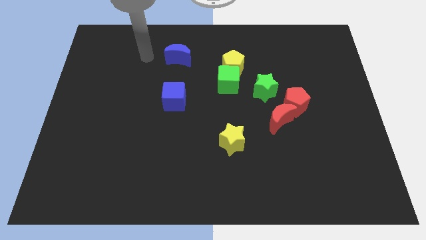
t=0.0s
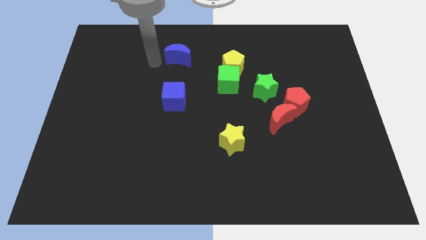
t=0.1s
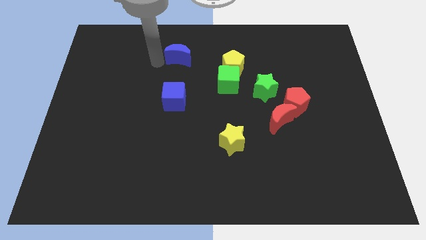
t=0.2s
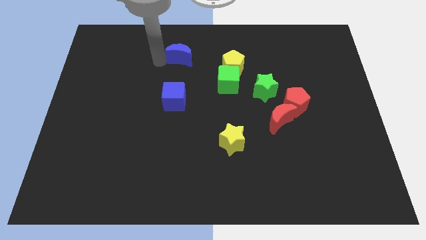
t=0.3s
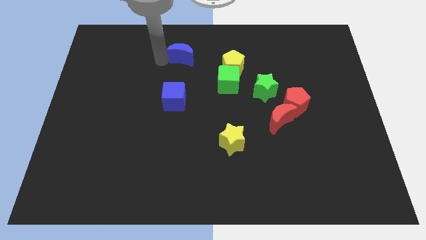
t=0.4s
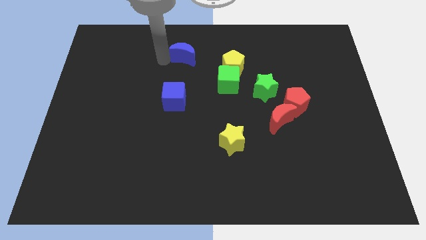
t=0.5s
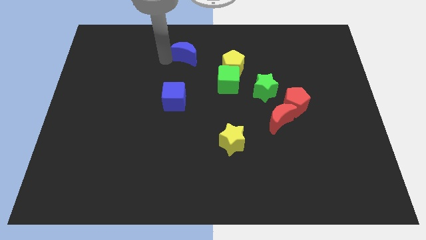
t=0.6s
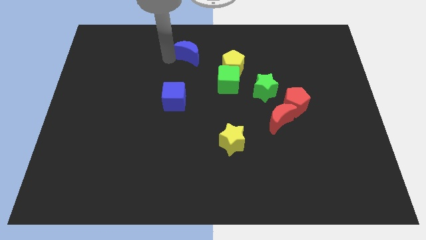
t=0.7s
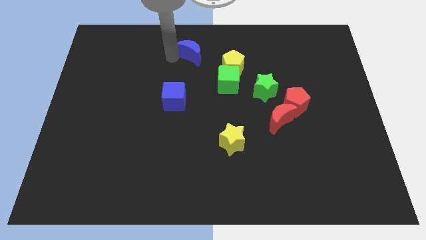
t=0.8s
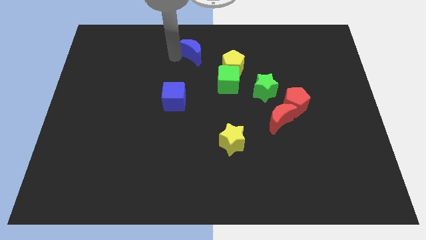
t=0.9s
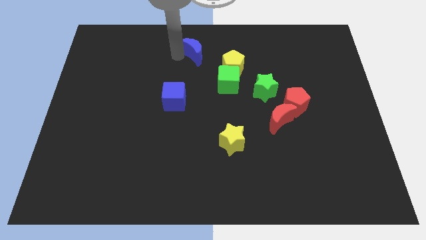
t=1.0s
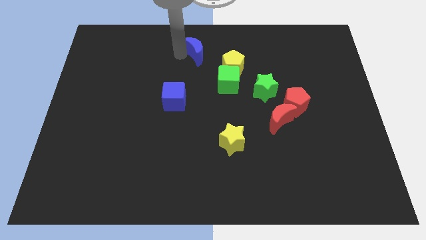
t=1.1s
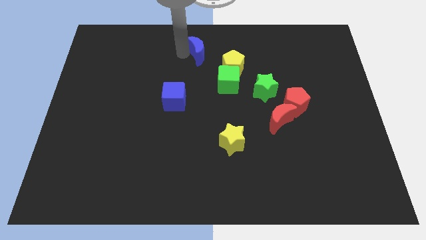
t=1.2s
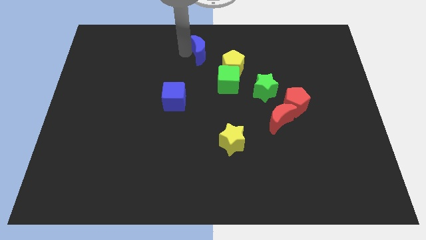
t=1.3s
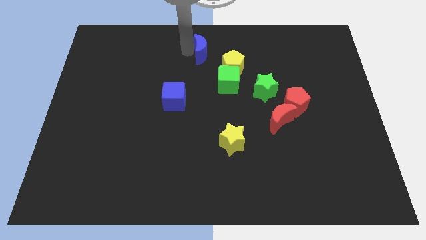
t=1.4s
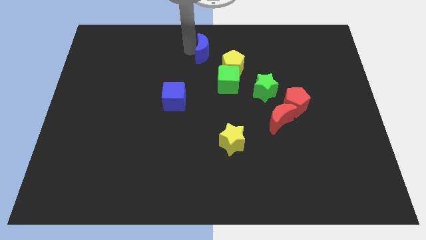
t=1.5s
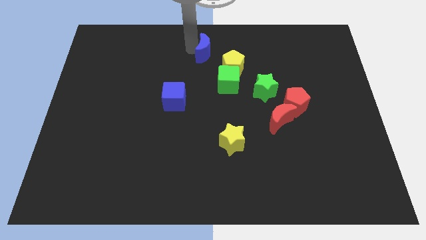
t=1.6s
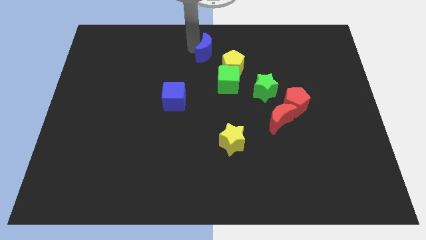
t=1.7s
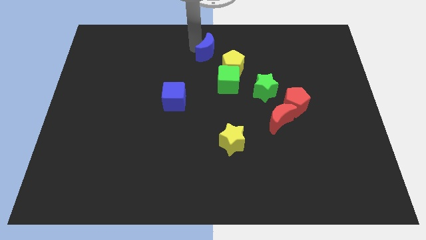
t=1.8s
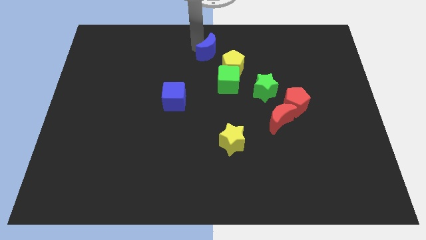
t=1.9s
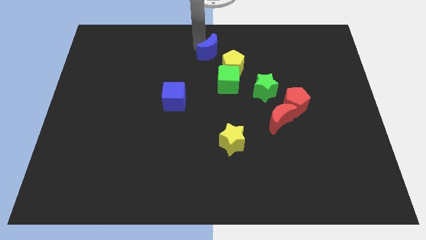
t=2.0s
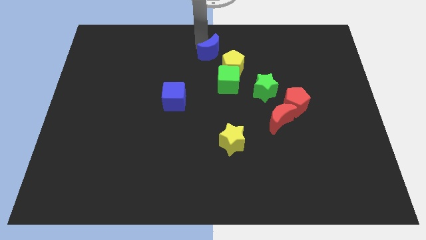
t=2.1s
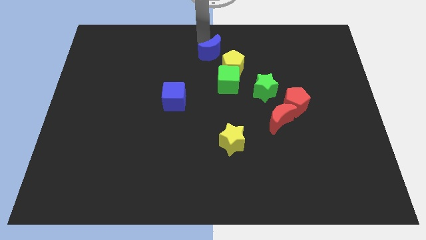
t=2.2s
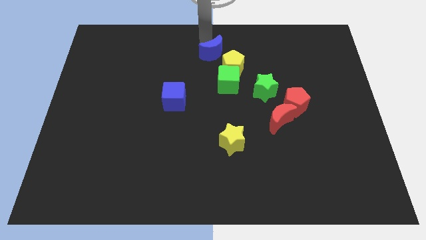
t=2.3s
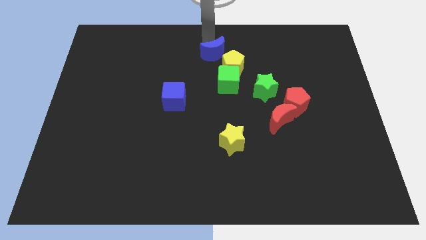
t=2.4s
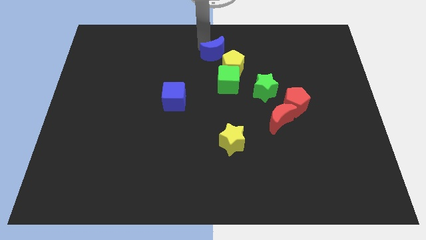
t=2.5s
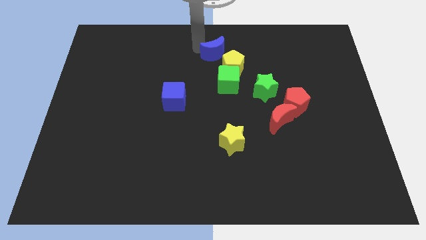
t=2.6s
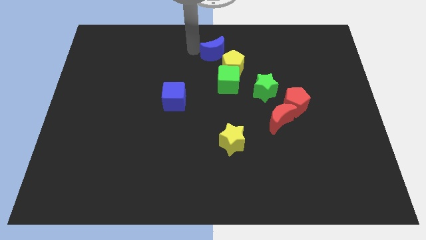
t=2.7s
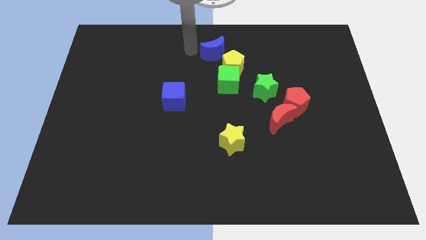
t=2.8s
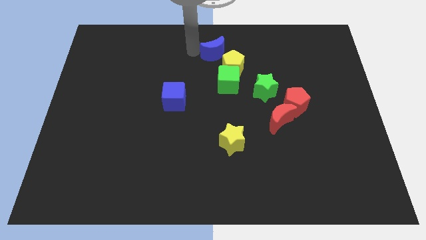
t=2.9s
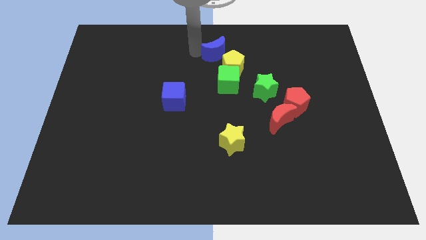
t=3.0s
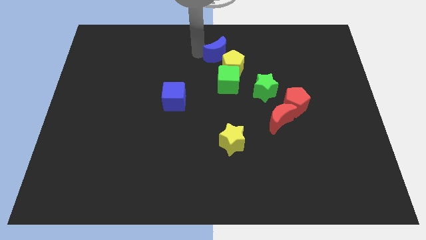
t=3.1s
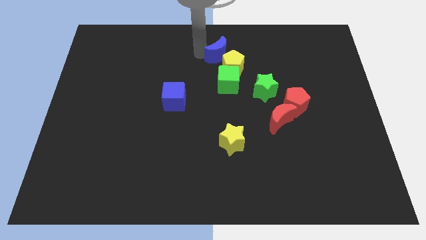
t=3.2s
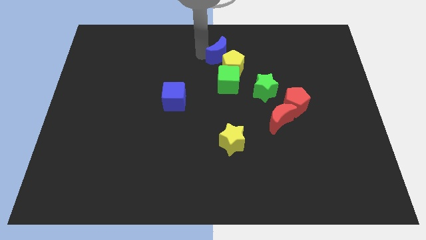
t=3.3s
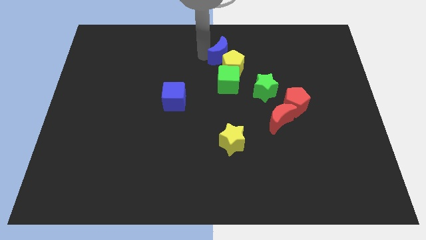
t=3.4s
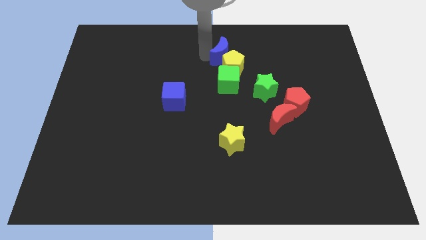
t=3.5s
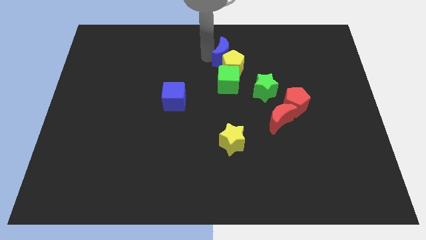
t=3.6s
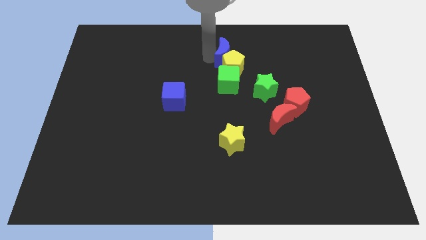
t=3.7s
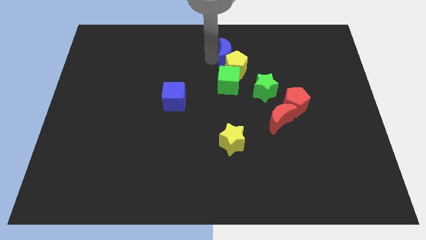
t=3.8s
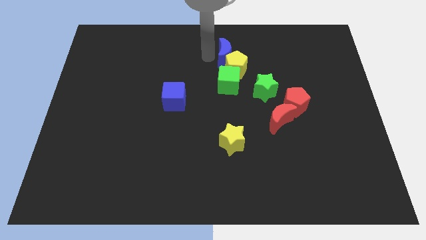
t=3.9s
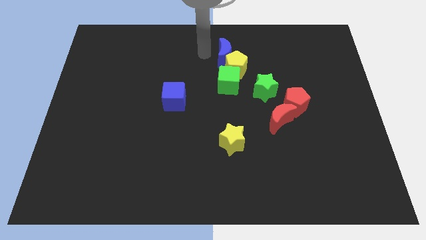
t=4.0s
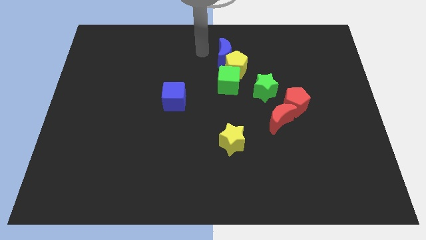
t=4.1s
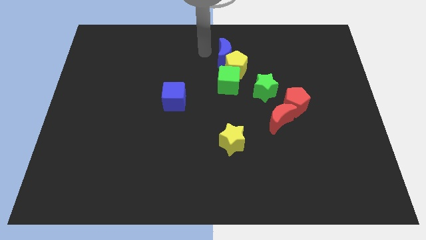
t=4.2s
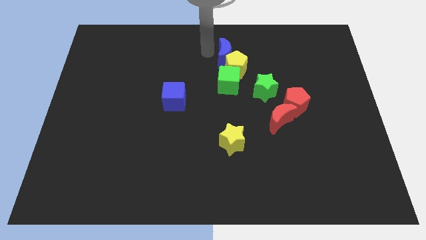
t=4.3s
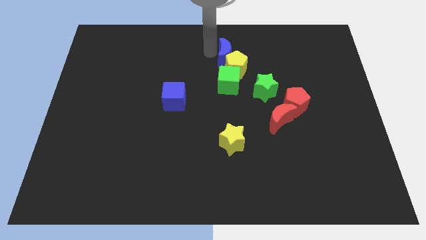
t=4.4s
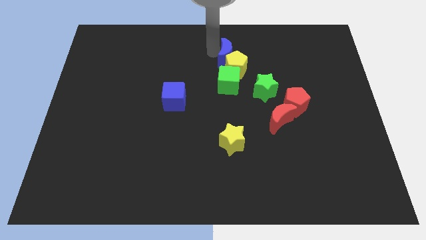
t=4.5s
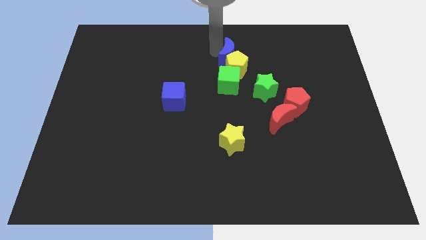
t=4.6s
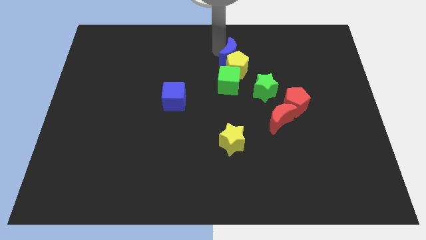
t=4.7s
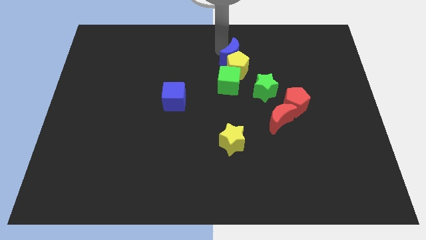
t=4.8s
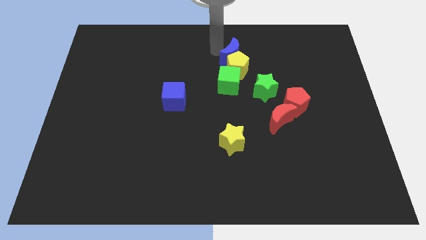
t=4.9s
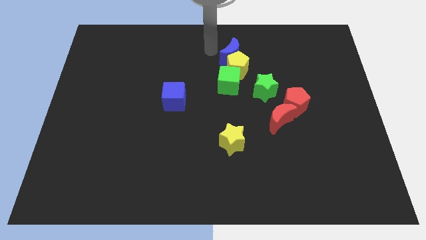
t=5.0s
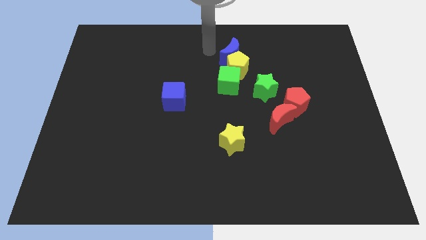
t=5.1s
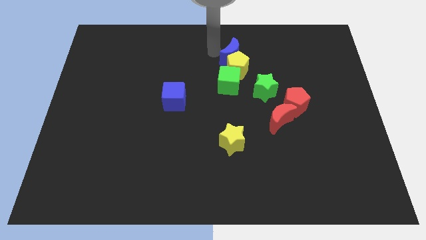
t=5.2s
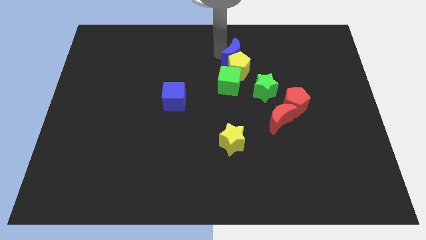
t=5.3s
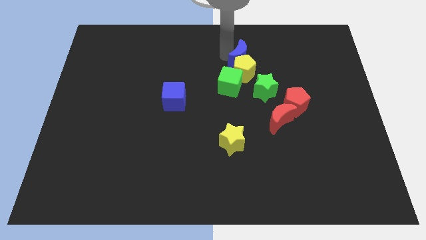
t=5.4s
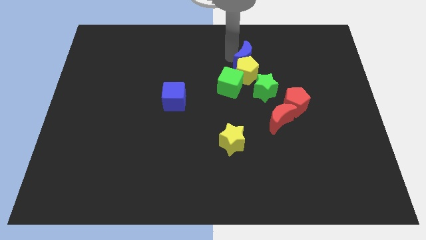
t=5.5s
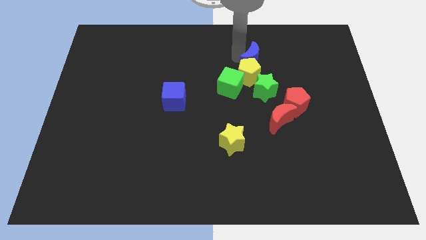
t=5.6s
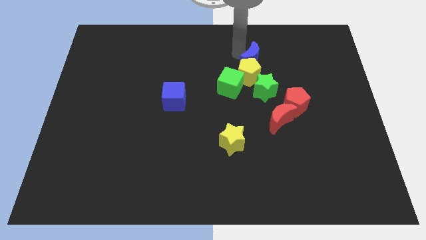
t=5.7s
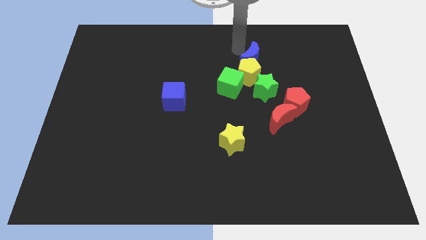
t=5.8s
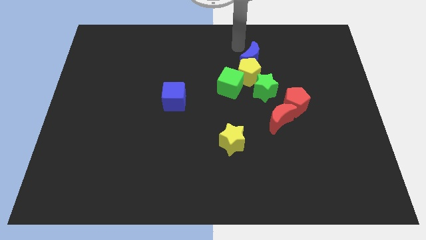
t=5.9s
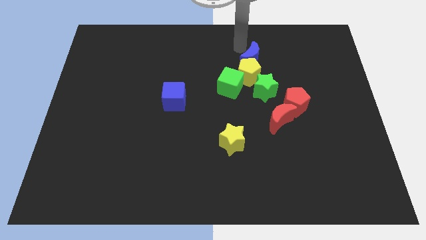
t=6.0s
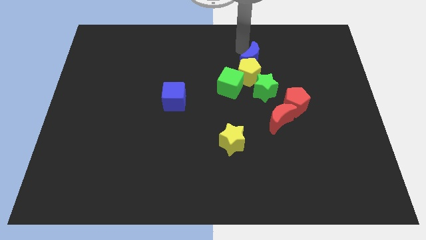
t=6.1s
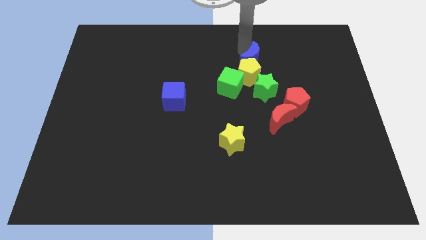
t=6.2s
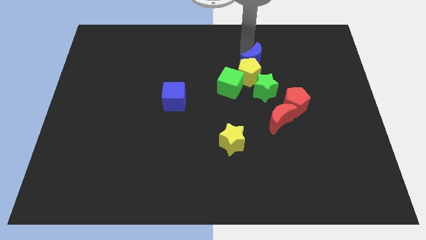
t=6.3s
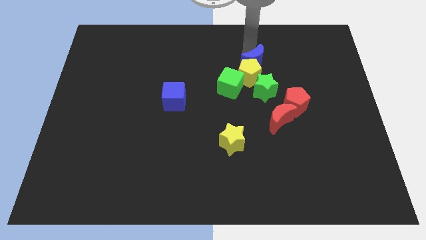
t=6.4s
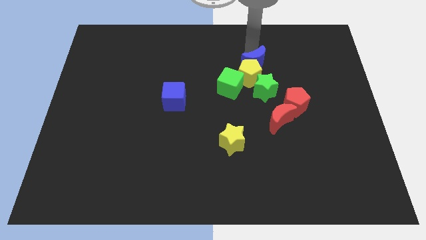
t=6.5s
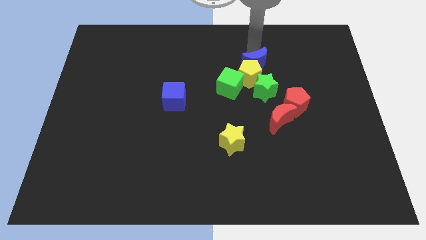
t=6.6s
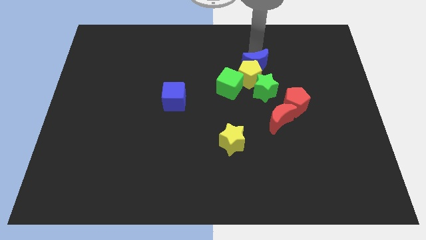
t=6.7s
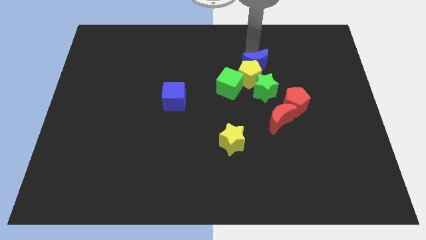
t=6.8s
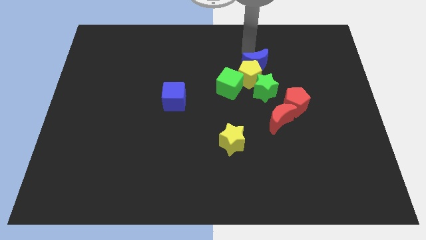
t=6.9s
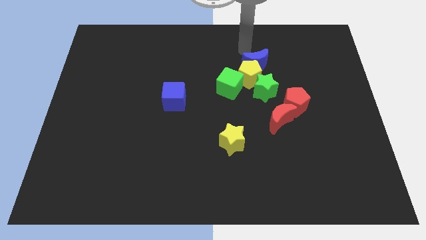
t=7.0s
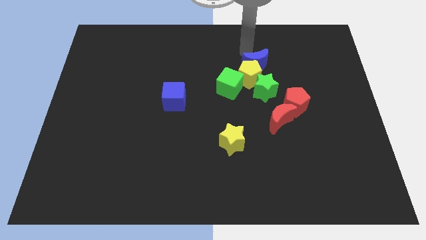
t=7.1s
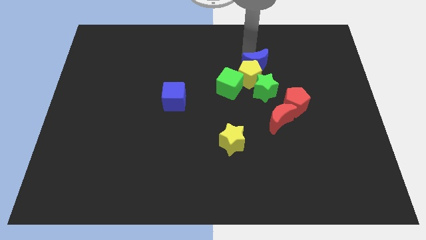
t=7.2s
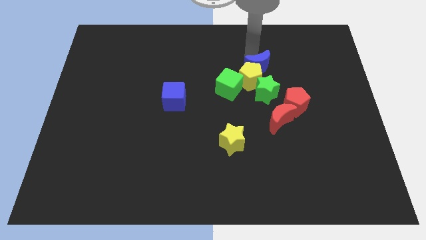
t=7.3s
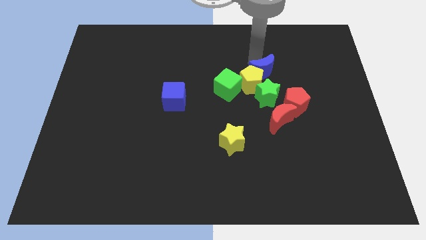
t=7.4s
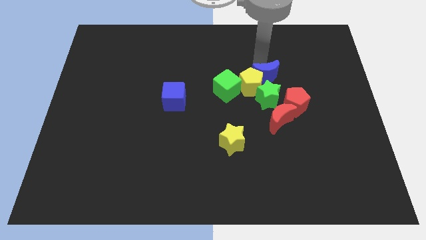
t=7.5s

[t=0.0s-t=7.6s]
push the blue moon right of the green cube
